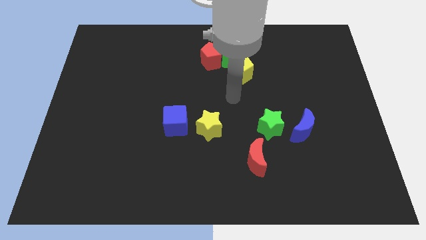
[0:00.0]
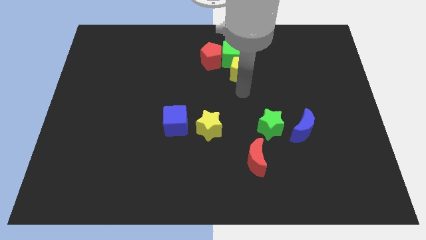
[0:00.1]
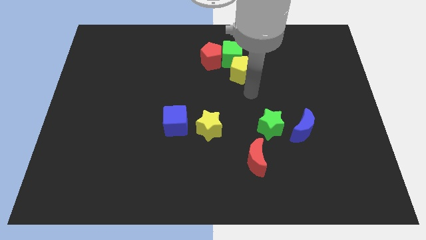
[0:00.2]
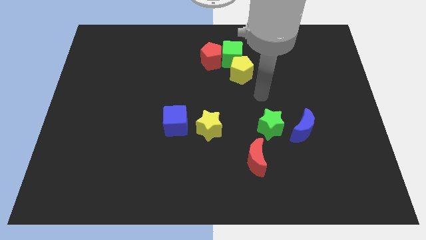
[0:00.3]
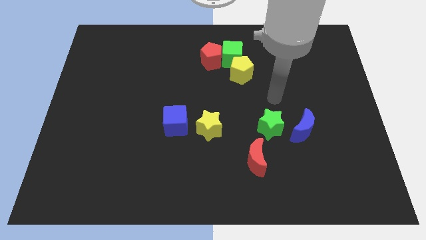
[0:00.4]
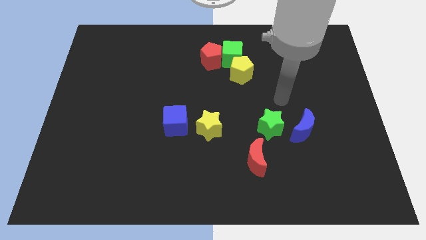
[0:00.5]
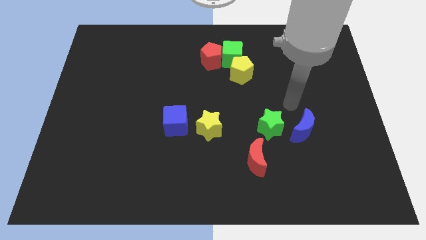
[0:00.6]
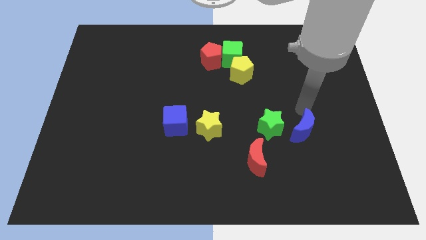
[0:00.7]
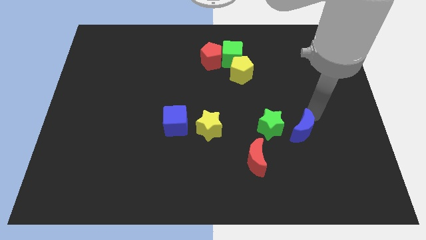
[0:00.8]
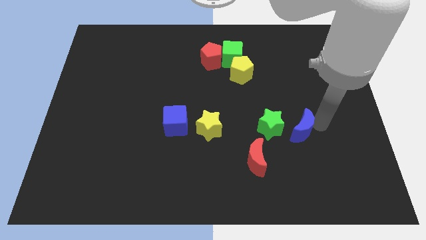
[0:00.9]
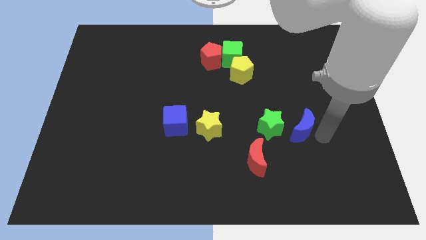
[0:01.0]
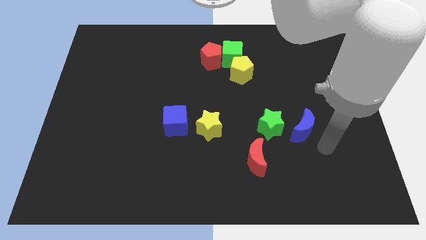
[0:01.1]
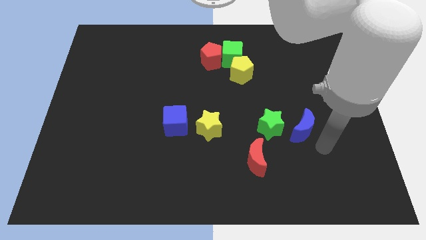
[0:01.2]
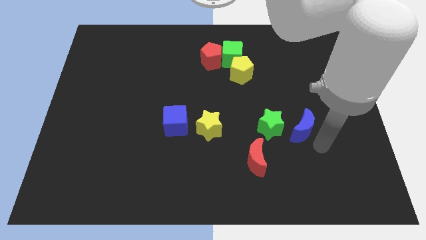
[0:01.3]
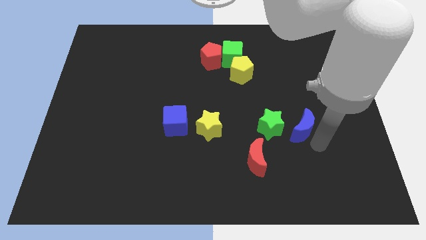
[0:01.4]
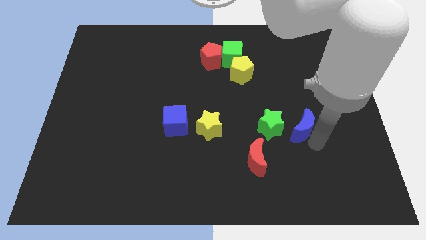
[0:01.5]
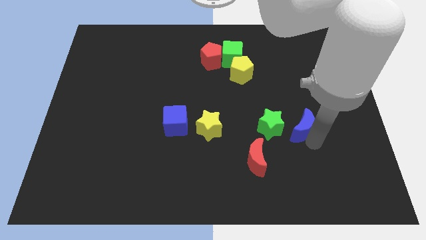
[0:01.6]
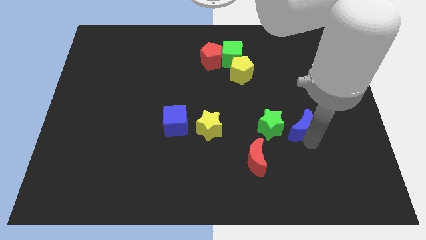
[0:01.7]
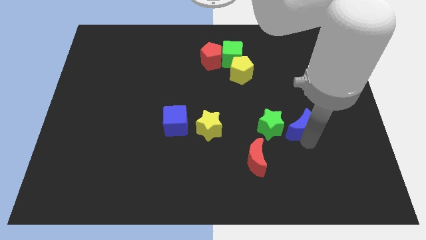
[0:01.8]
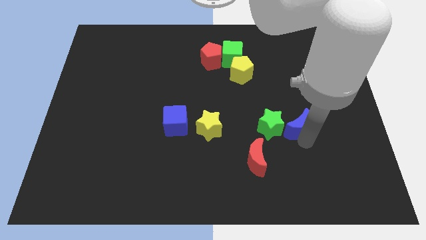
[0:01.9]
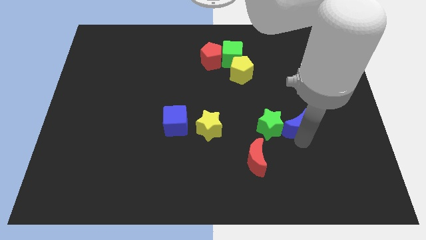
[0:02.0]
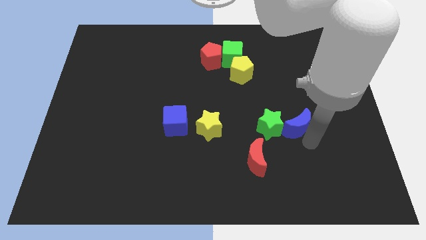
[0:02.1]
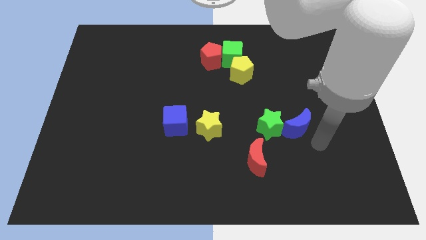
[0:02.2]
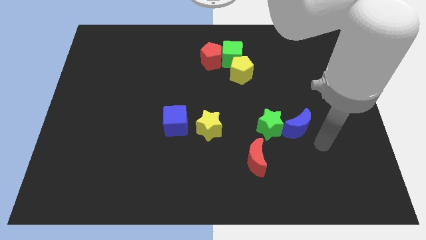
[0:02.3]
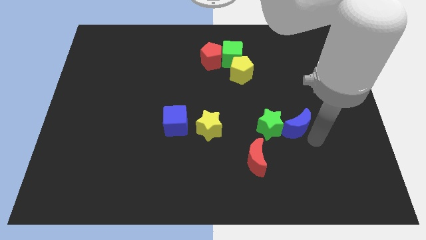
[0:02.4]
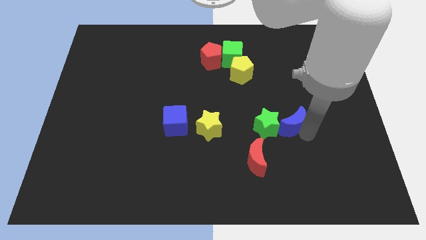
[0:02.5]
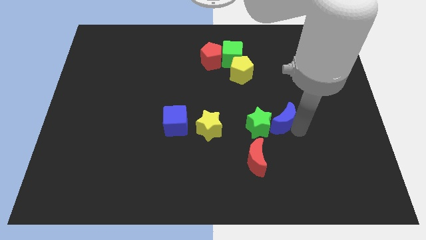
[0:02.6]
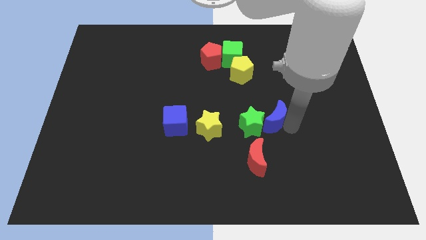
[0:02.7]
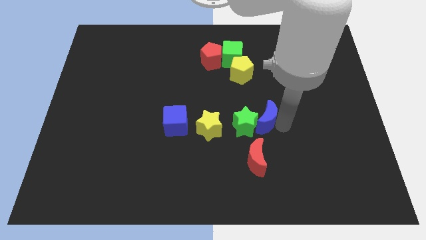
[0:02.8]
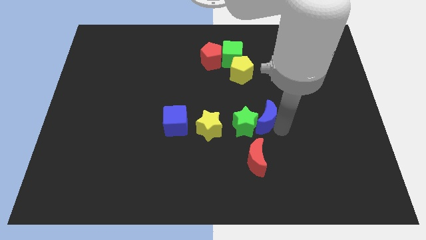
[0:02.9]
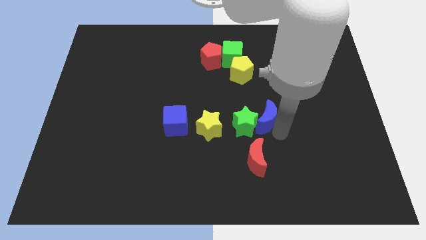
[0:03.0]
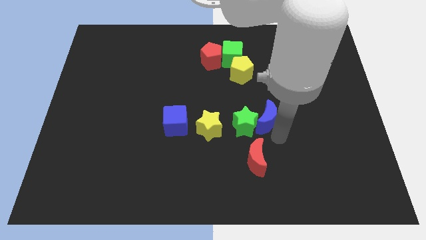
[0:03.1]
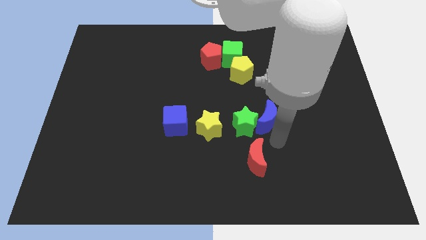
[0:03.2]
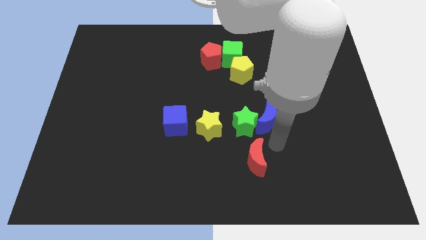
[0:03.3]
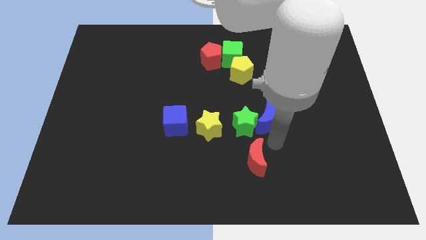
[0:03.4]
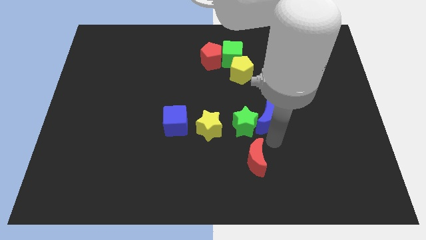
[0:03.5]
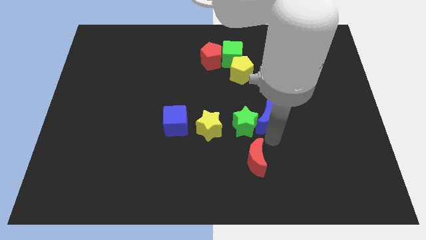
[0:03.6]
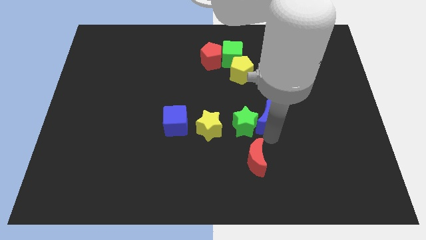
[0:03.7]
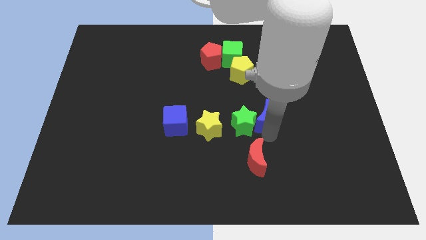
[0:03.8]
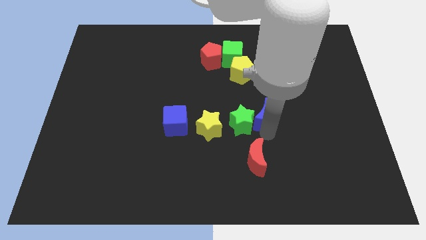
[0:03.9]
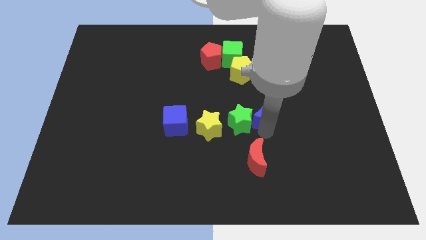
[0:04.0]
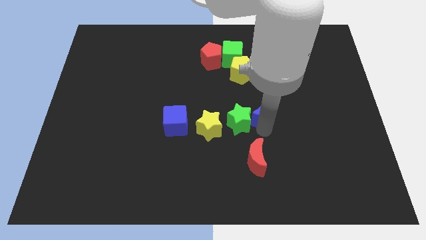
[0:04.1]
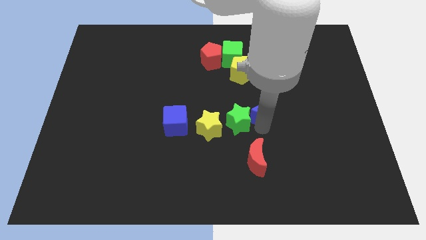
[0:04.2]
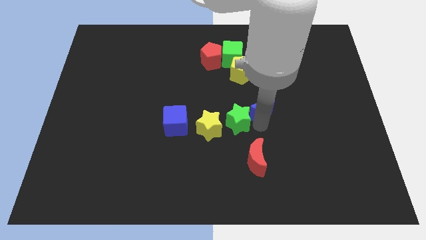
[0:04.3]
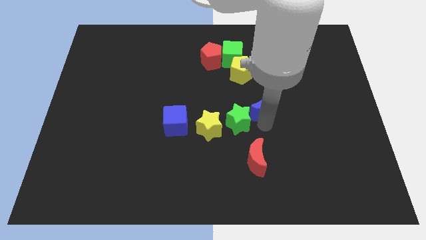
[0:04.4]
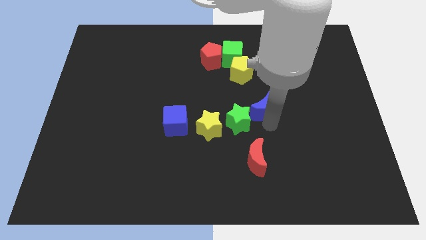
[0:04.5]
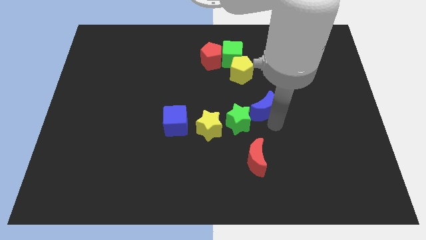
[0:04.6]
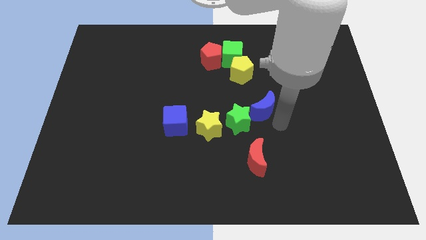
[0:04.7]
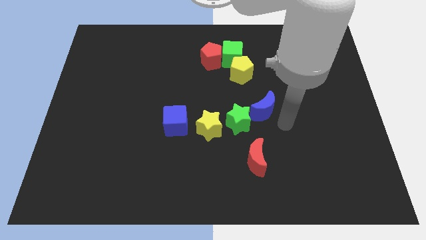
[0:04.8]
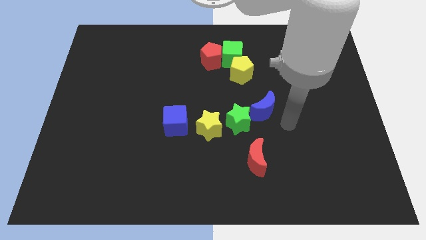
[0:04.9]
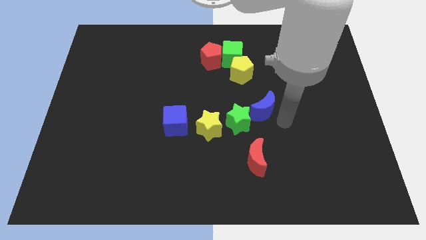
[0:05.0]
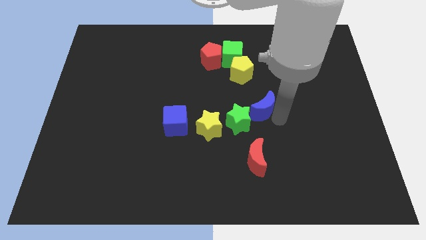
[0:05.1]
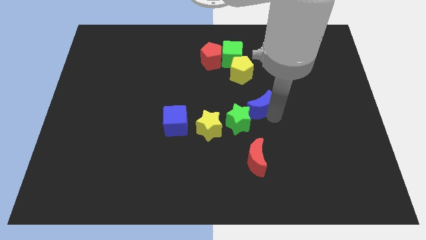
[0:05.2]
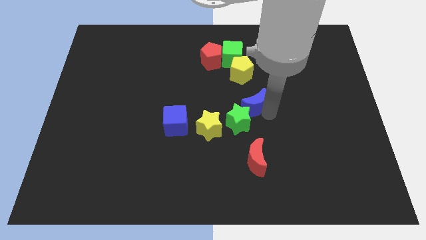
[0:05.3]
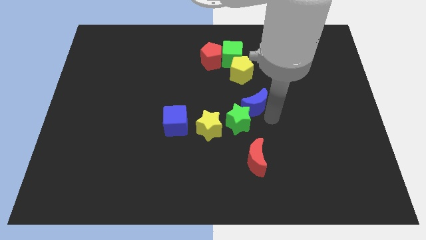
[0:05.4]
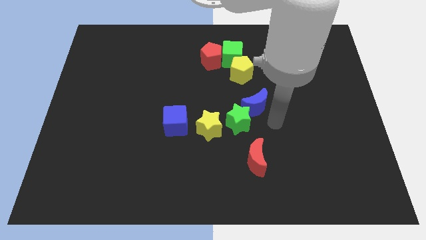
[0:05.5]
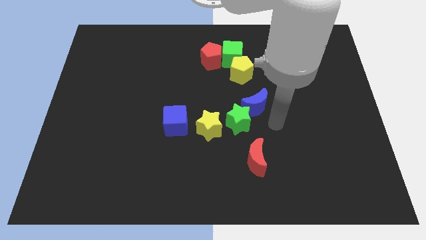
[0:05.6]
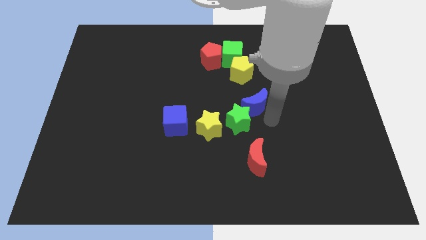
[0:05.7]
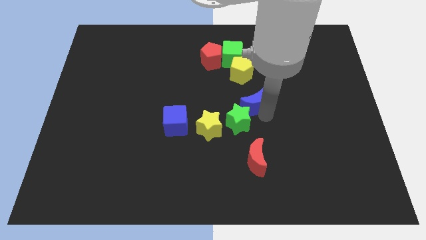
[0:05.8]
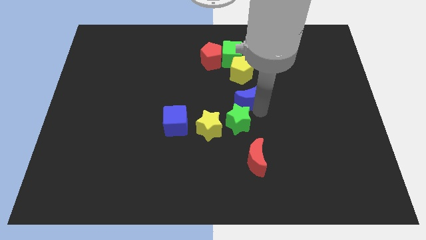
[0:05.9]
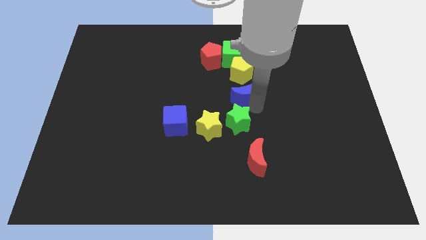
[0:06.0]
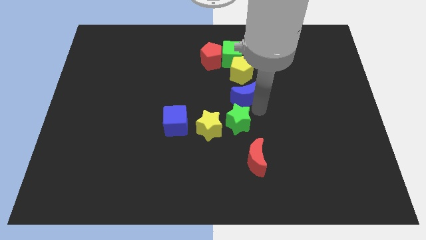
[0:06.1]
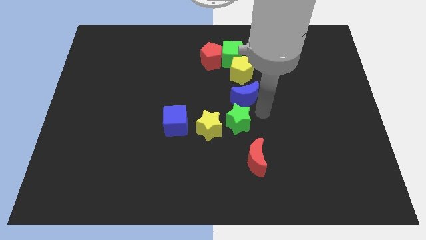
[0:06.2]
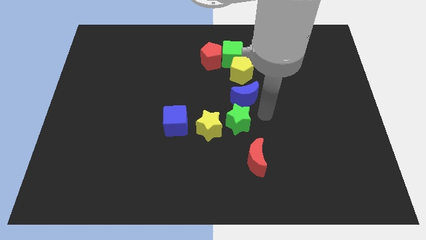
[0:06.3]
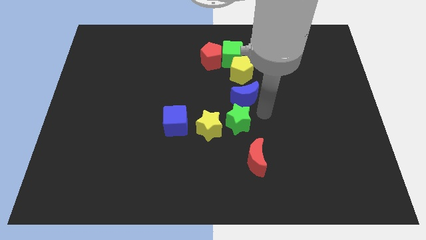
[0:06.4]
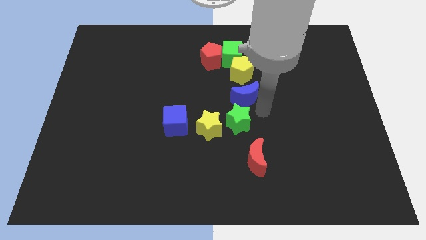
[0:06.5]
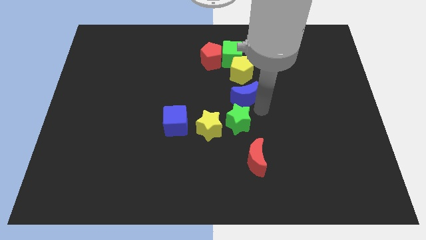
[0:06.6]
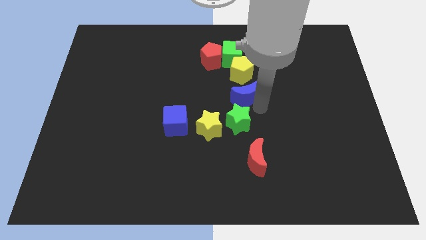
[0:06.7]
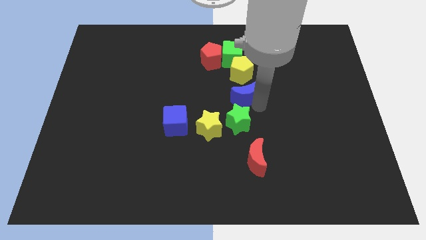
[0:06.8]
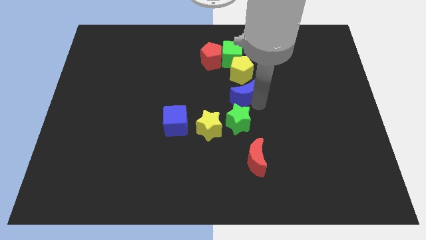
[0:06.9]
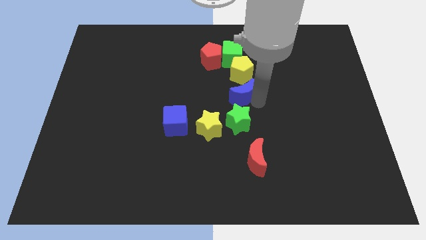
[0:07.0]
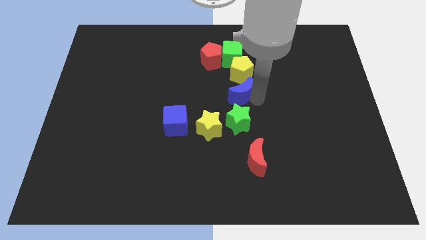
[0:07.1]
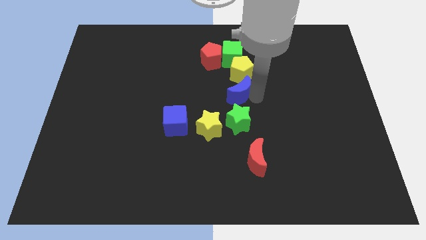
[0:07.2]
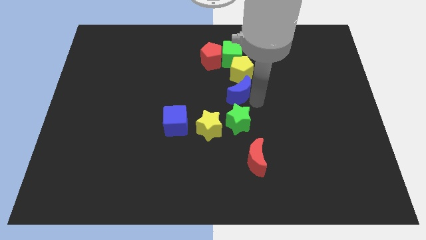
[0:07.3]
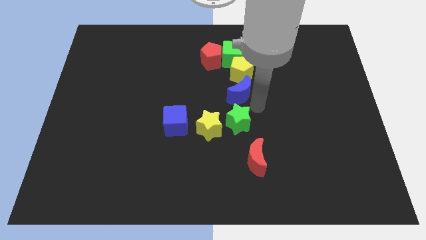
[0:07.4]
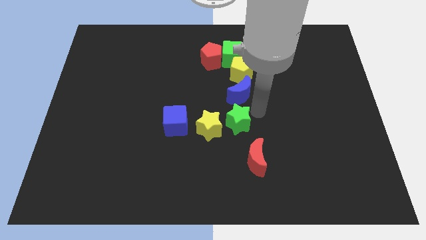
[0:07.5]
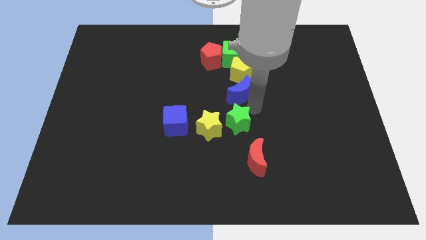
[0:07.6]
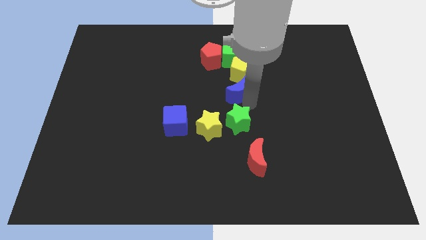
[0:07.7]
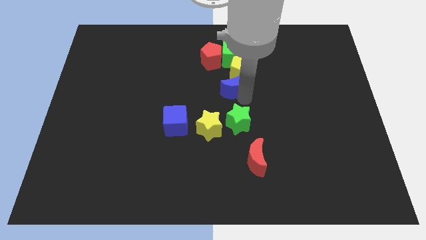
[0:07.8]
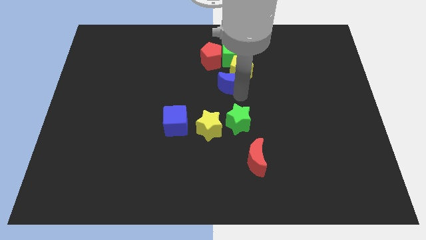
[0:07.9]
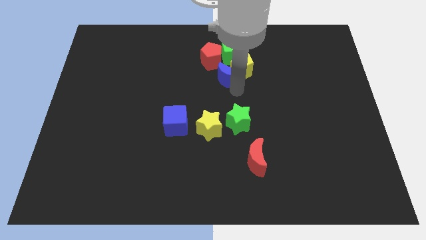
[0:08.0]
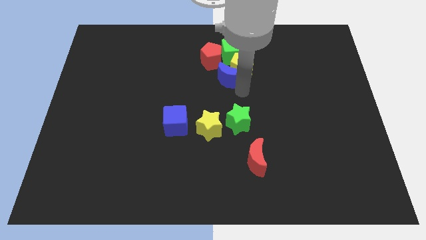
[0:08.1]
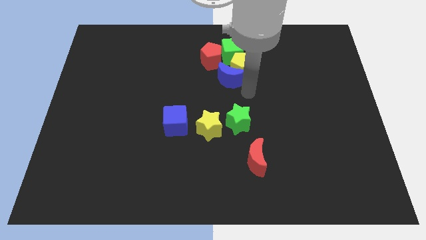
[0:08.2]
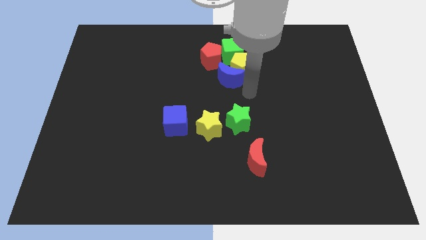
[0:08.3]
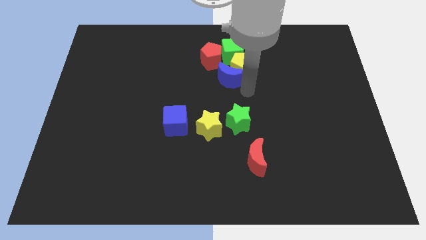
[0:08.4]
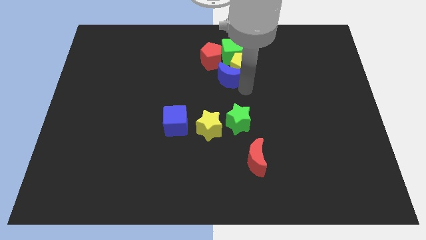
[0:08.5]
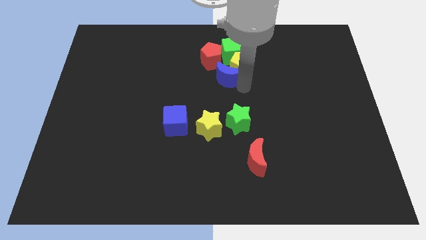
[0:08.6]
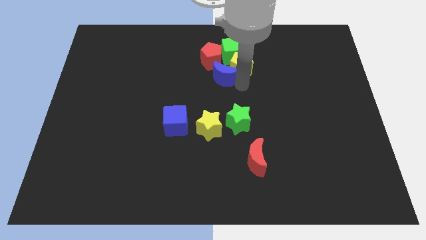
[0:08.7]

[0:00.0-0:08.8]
slide the blue moon to the bottom left of the green cube
